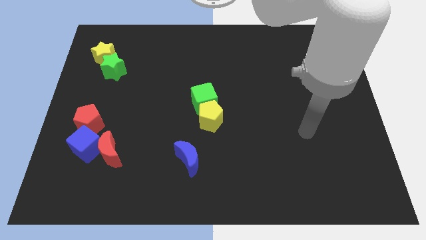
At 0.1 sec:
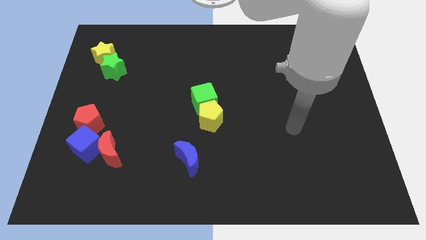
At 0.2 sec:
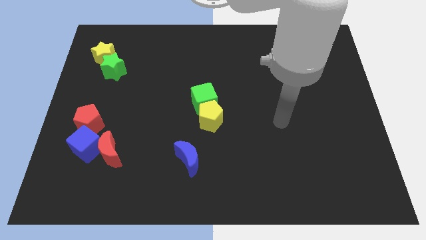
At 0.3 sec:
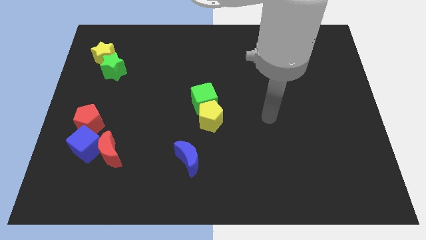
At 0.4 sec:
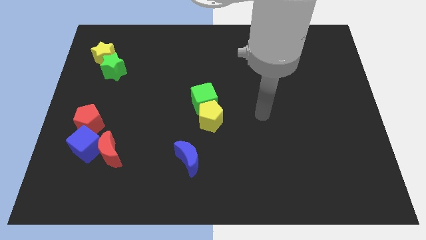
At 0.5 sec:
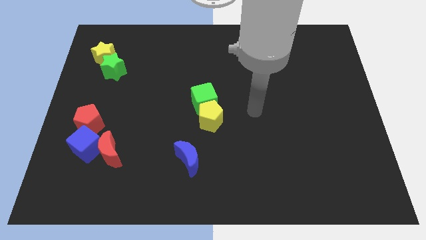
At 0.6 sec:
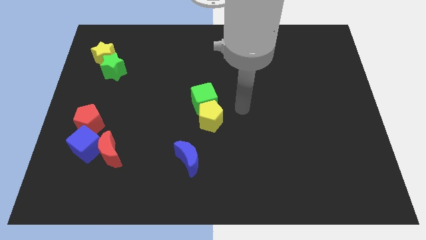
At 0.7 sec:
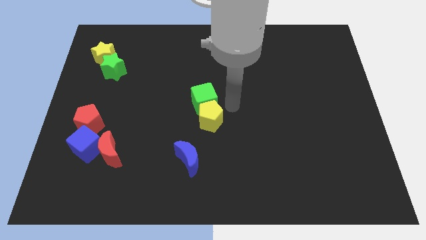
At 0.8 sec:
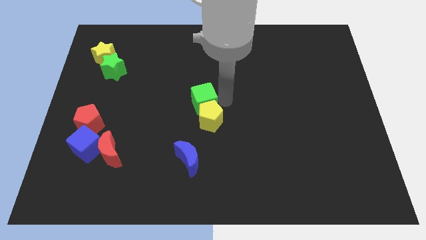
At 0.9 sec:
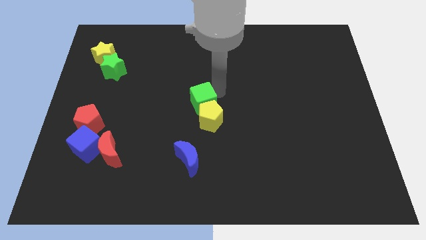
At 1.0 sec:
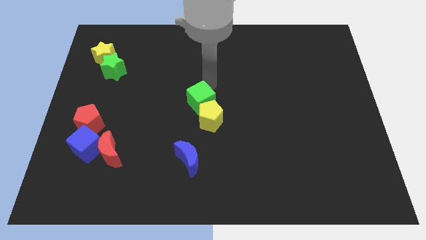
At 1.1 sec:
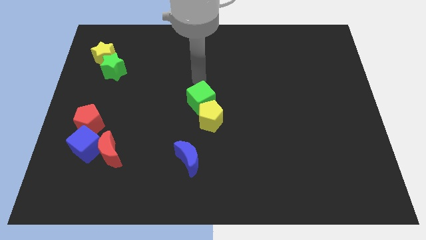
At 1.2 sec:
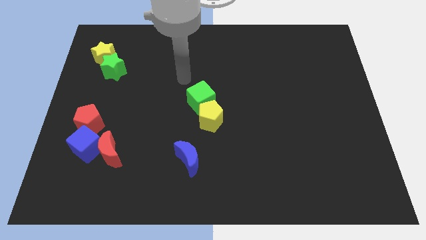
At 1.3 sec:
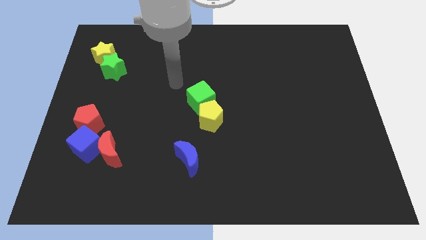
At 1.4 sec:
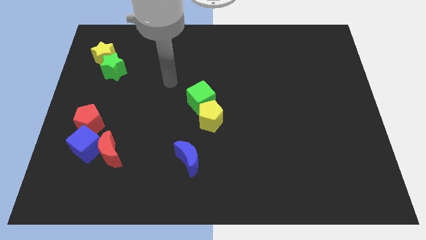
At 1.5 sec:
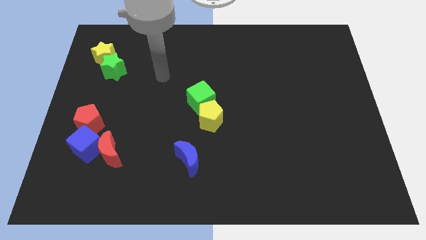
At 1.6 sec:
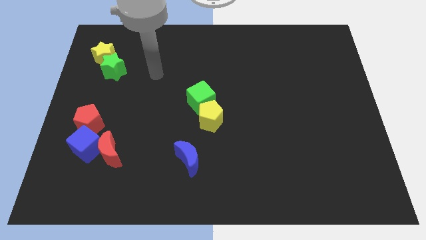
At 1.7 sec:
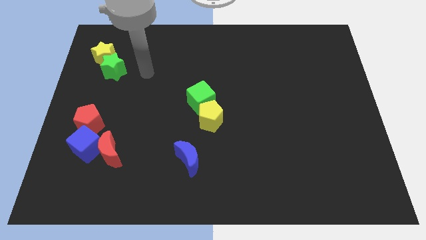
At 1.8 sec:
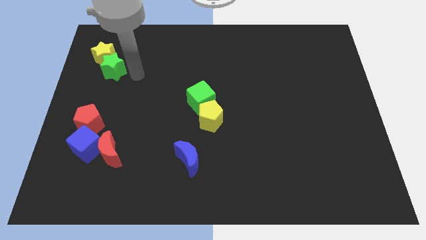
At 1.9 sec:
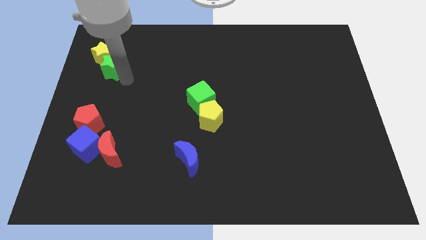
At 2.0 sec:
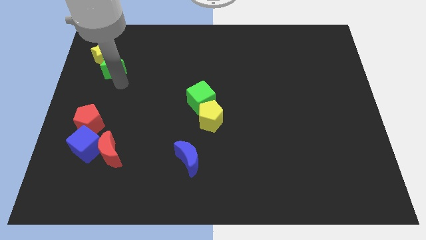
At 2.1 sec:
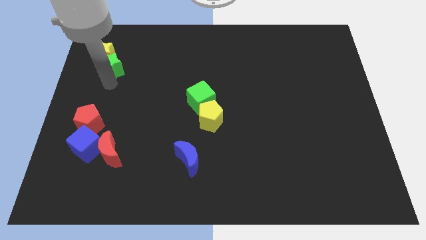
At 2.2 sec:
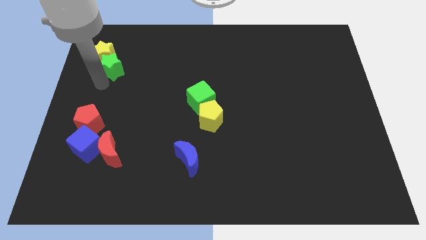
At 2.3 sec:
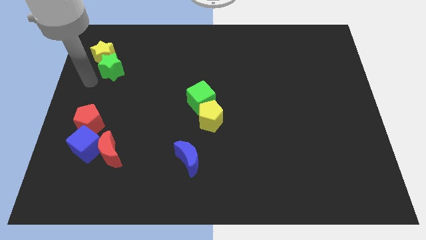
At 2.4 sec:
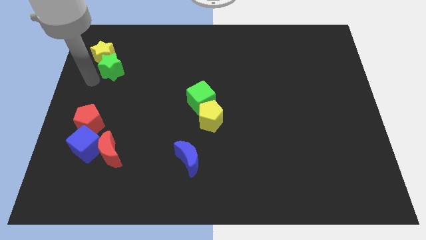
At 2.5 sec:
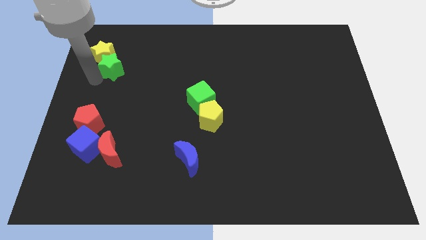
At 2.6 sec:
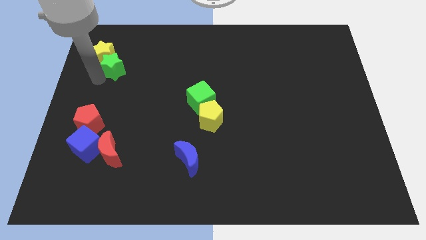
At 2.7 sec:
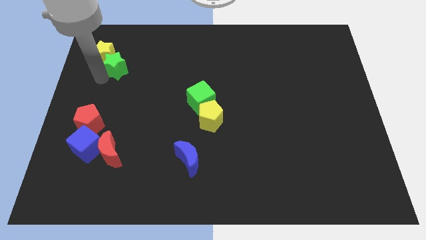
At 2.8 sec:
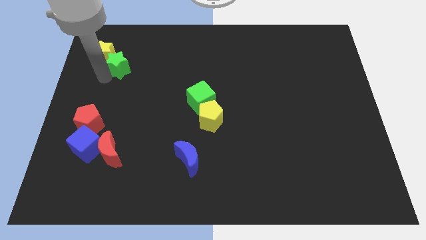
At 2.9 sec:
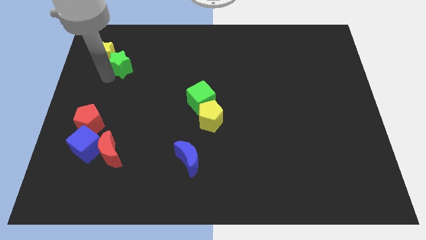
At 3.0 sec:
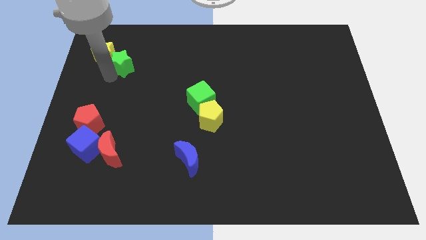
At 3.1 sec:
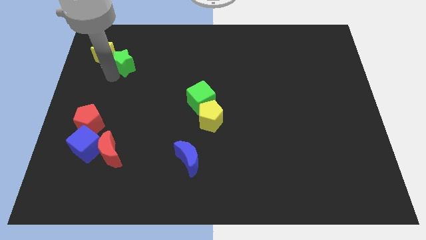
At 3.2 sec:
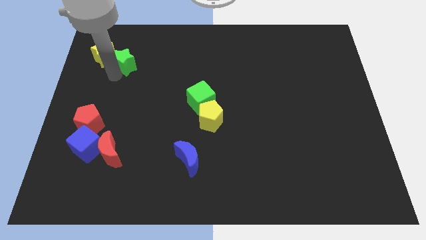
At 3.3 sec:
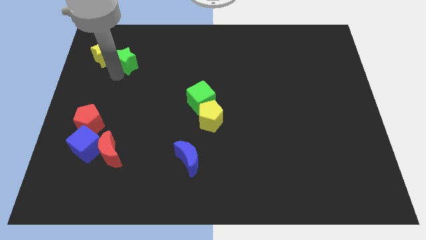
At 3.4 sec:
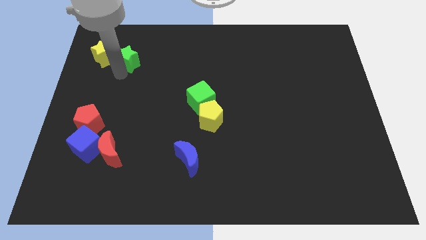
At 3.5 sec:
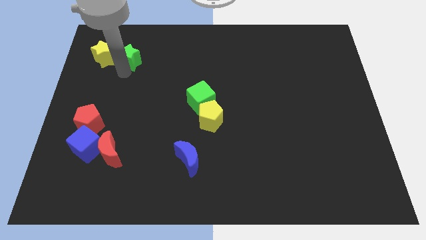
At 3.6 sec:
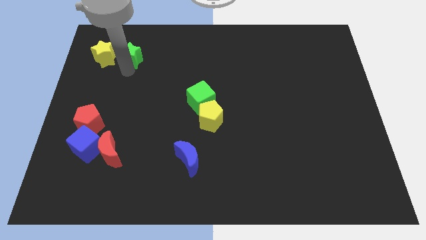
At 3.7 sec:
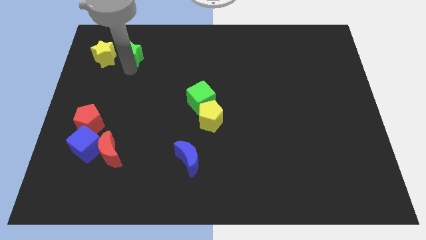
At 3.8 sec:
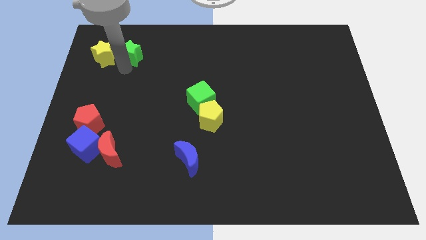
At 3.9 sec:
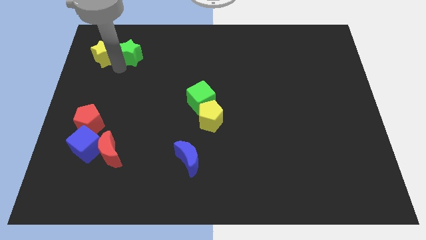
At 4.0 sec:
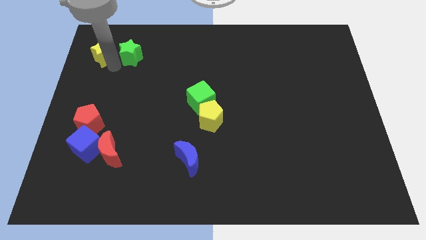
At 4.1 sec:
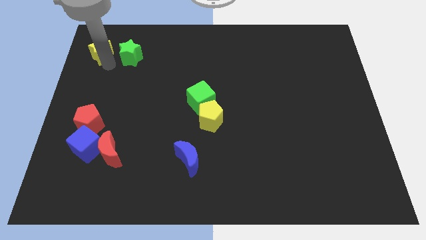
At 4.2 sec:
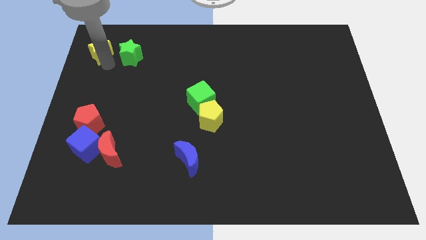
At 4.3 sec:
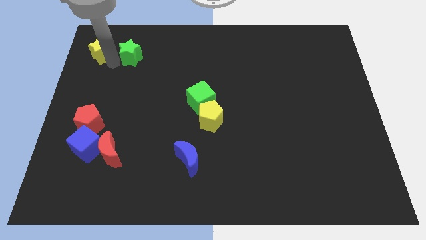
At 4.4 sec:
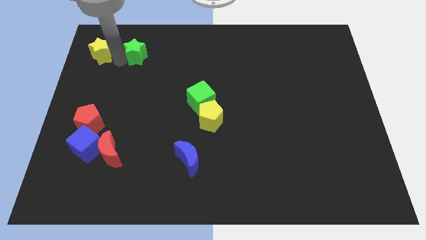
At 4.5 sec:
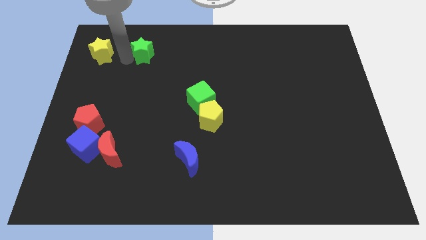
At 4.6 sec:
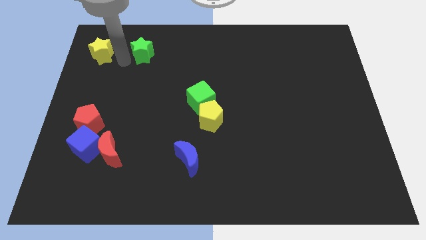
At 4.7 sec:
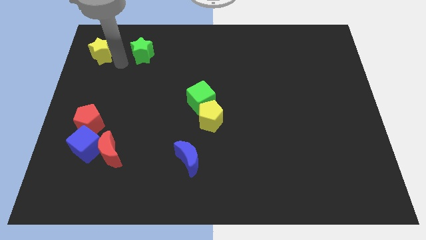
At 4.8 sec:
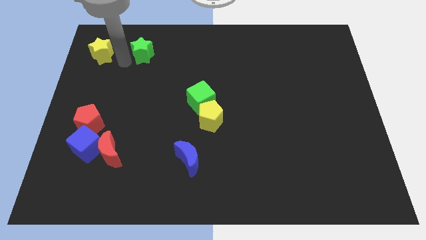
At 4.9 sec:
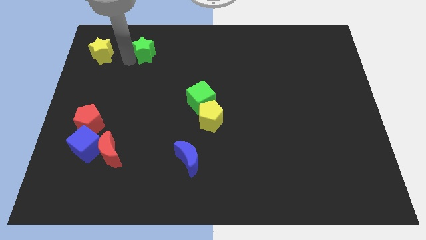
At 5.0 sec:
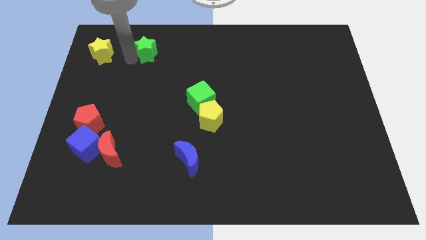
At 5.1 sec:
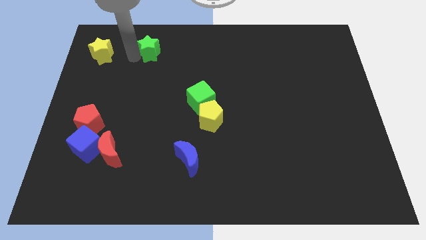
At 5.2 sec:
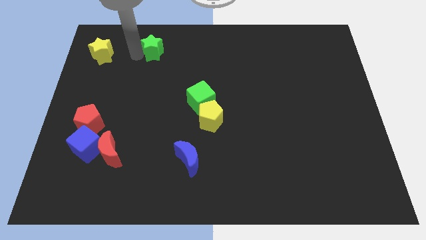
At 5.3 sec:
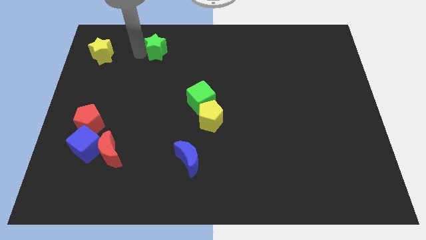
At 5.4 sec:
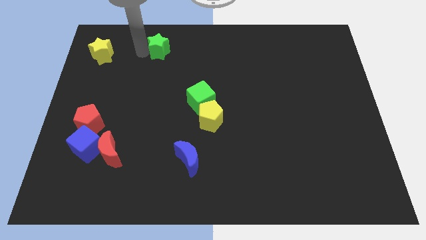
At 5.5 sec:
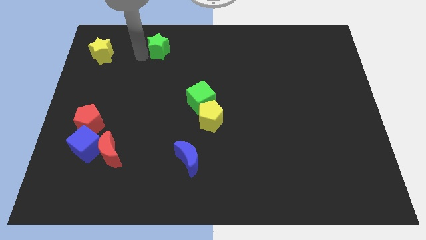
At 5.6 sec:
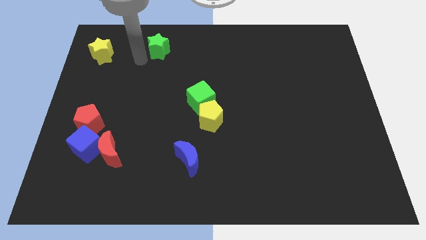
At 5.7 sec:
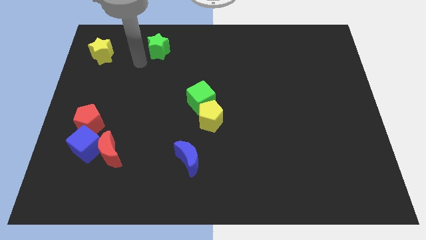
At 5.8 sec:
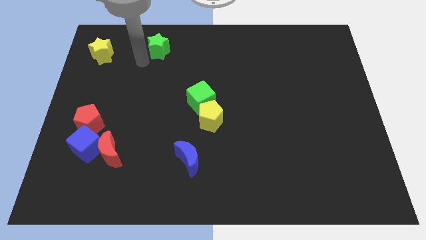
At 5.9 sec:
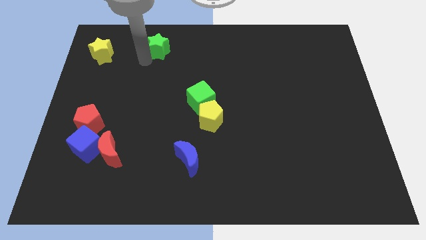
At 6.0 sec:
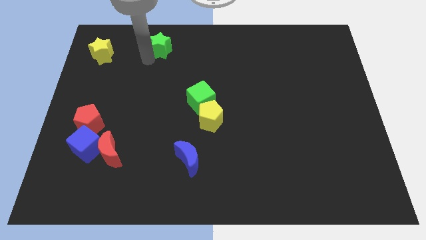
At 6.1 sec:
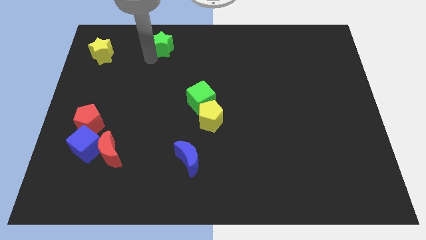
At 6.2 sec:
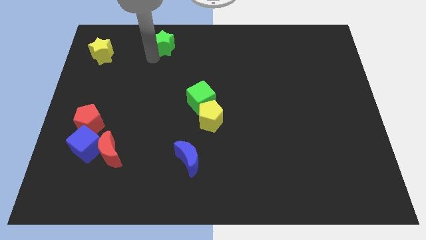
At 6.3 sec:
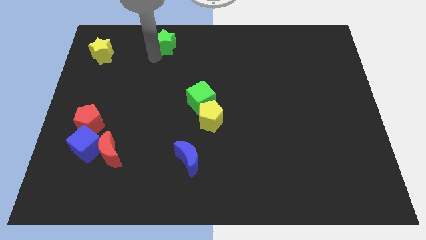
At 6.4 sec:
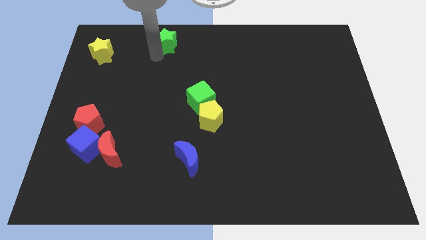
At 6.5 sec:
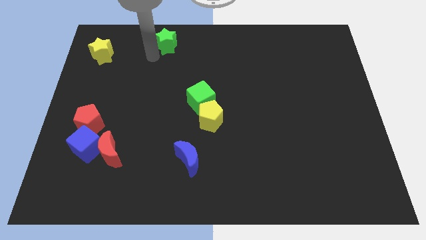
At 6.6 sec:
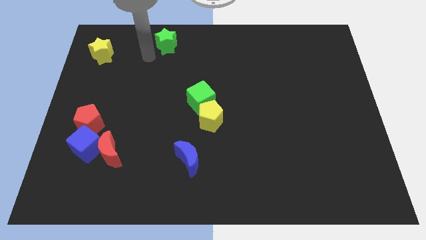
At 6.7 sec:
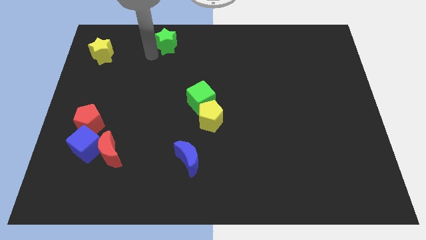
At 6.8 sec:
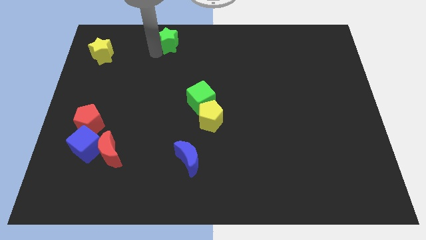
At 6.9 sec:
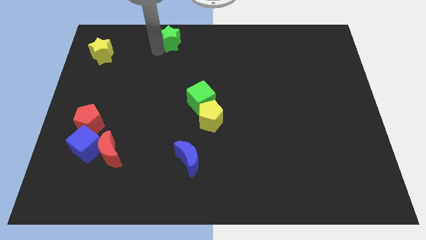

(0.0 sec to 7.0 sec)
put the green star to the top

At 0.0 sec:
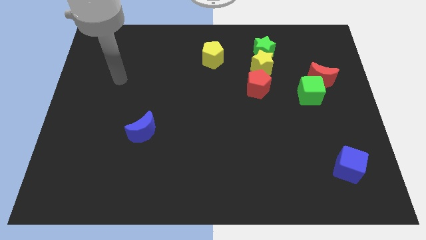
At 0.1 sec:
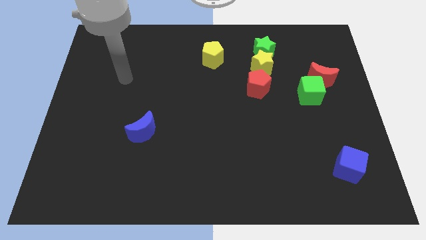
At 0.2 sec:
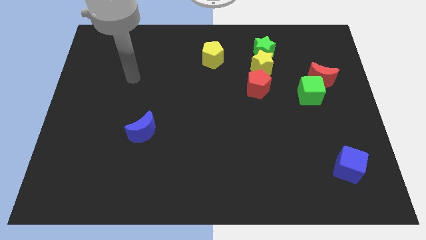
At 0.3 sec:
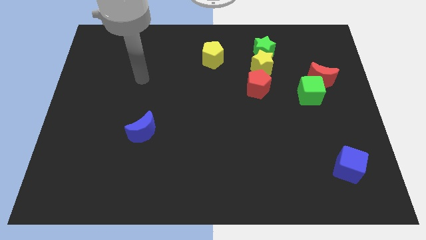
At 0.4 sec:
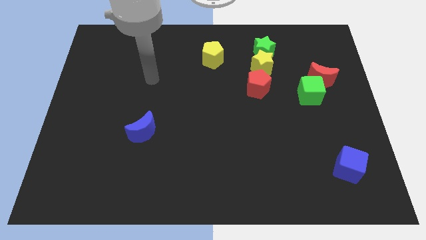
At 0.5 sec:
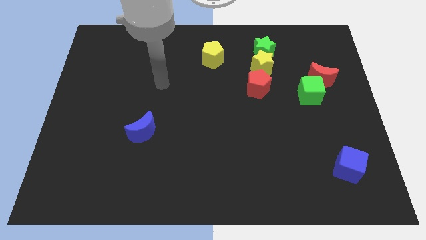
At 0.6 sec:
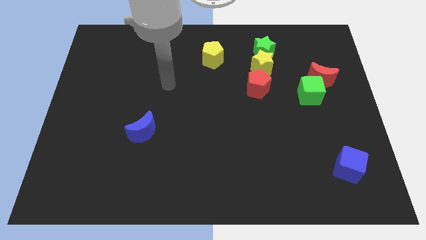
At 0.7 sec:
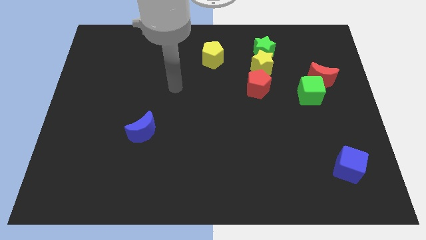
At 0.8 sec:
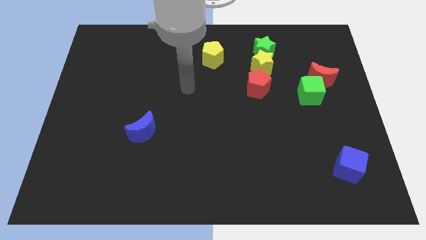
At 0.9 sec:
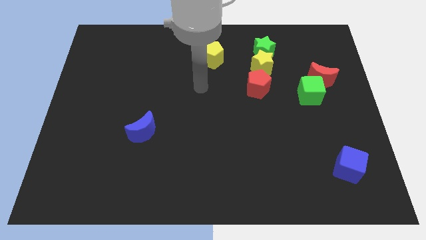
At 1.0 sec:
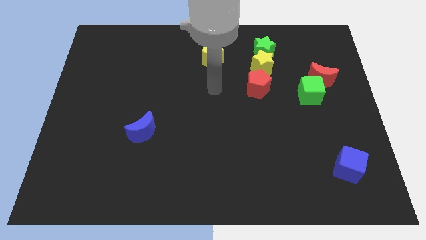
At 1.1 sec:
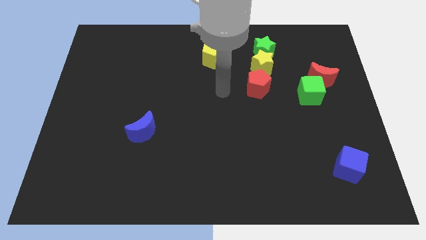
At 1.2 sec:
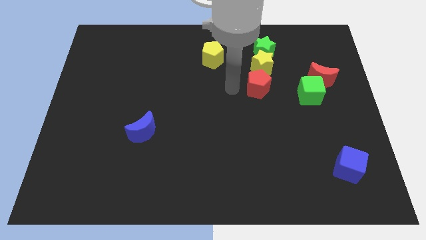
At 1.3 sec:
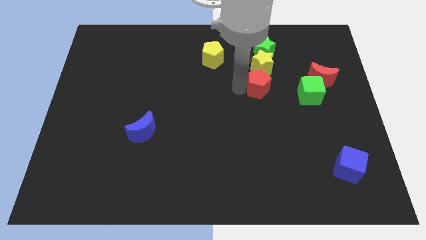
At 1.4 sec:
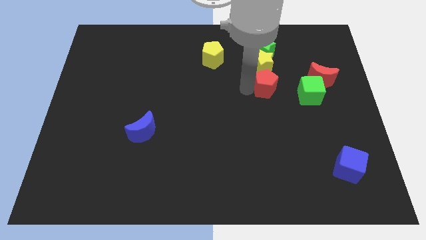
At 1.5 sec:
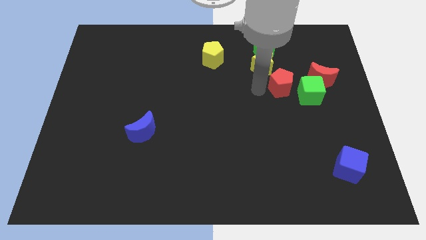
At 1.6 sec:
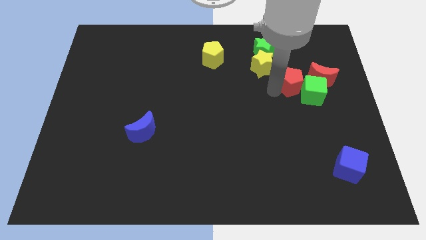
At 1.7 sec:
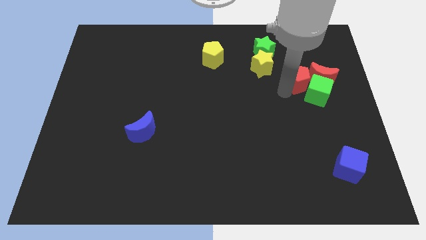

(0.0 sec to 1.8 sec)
move the green cube to the right side of the board
